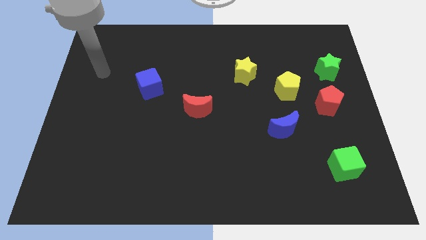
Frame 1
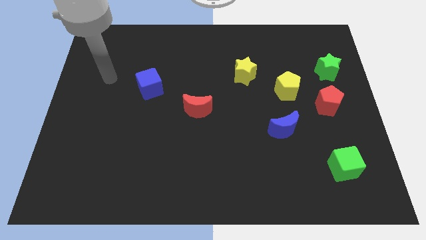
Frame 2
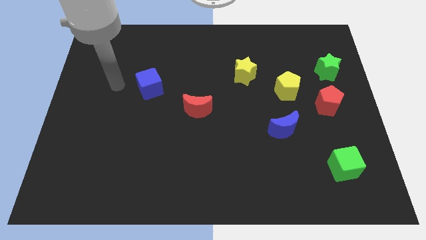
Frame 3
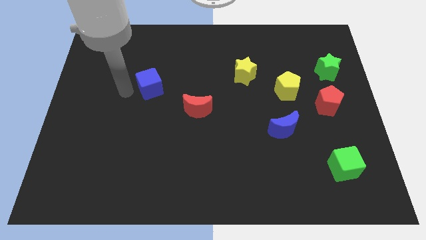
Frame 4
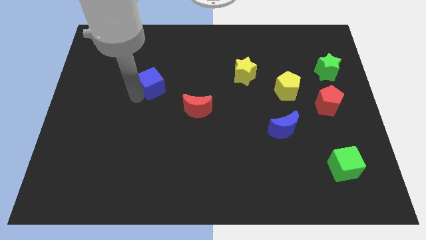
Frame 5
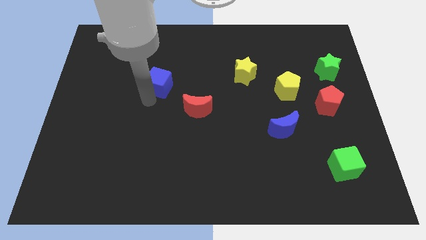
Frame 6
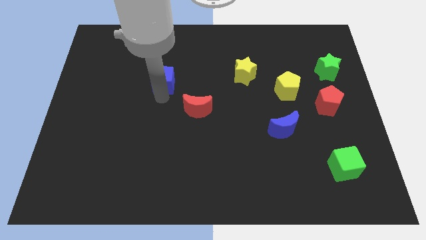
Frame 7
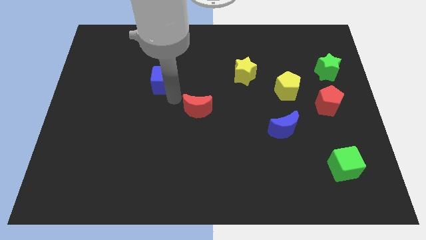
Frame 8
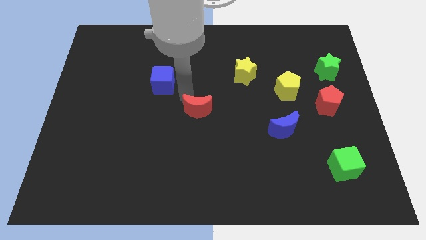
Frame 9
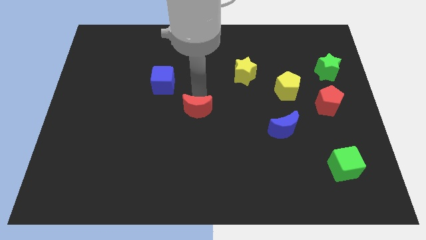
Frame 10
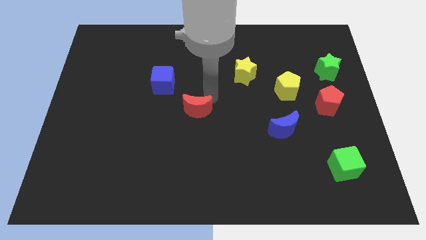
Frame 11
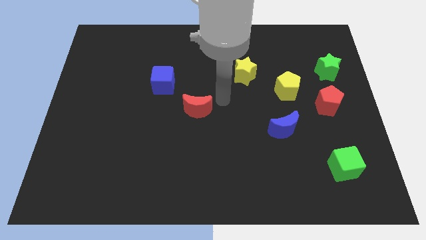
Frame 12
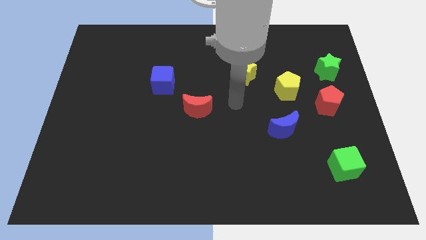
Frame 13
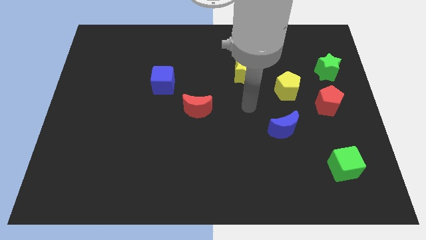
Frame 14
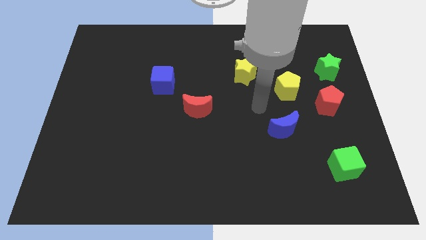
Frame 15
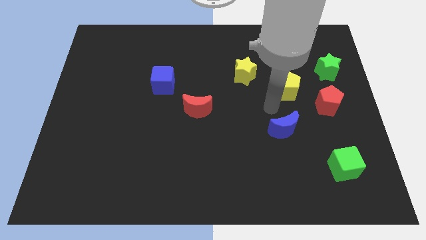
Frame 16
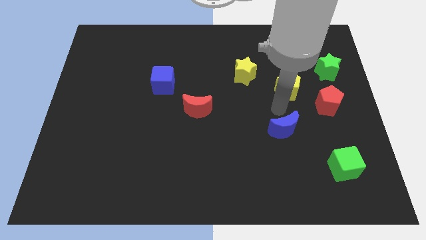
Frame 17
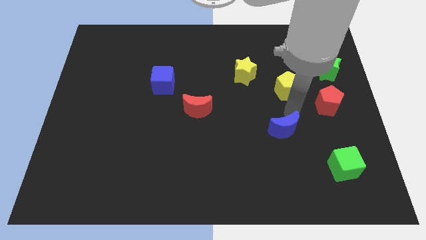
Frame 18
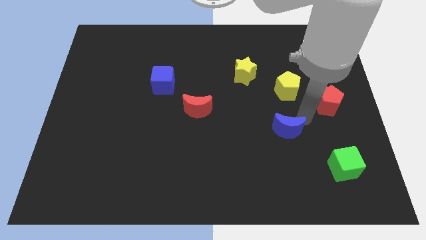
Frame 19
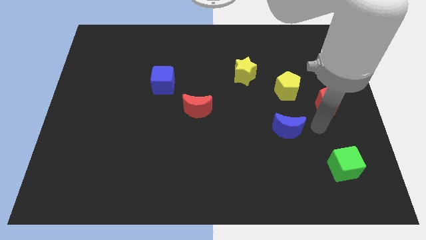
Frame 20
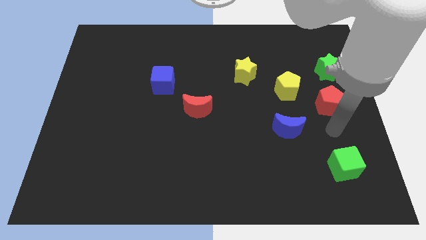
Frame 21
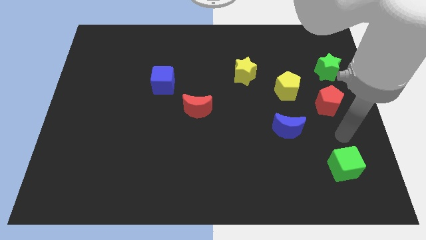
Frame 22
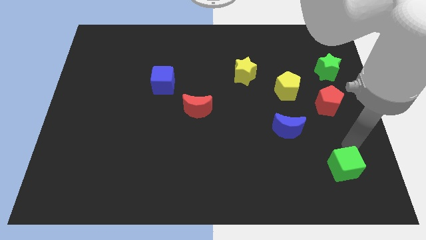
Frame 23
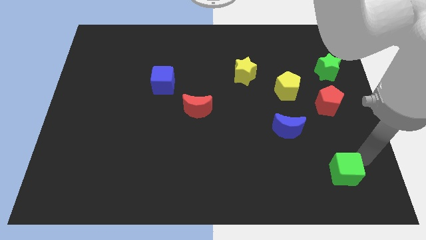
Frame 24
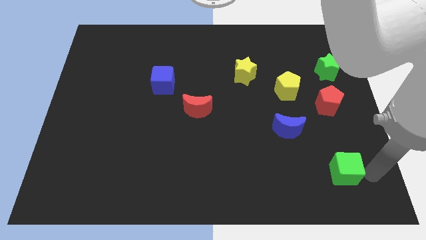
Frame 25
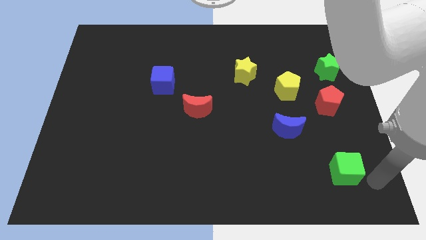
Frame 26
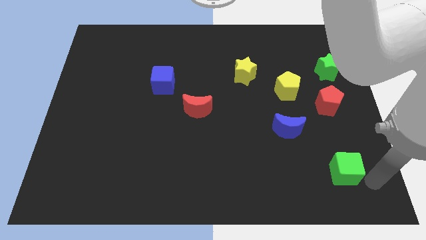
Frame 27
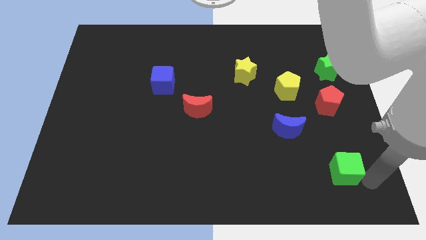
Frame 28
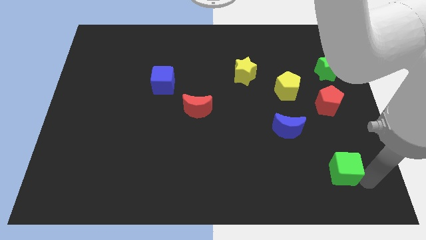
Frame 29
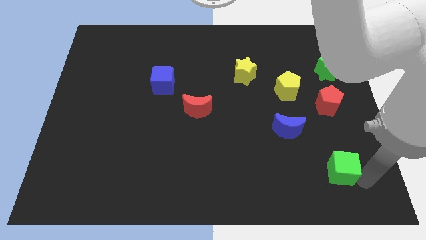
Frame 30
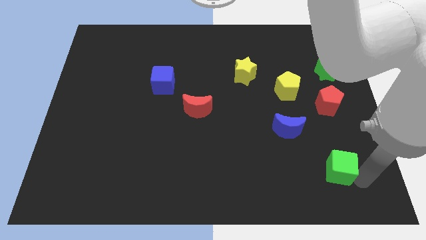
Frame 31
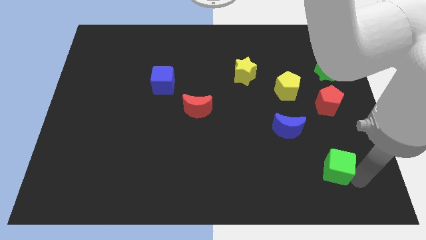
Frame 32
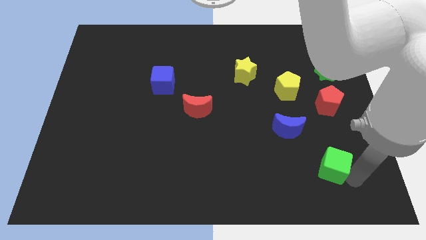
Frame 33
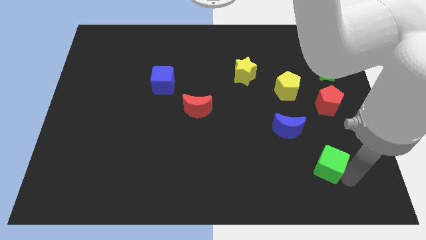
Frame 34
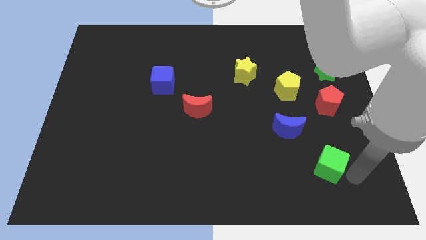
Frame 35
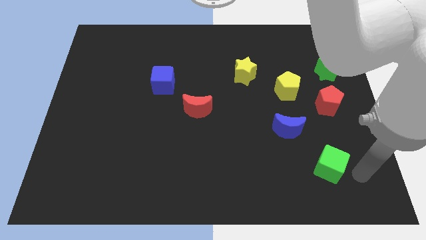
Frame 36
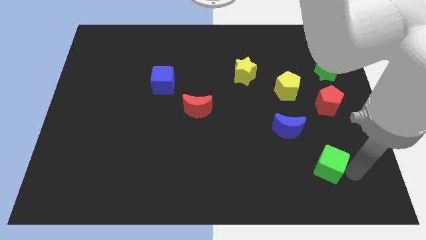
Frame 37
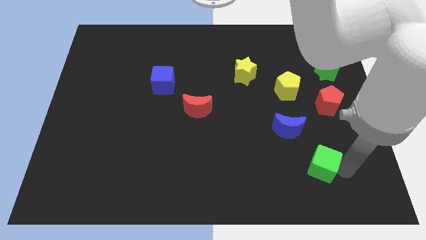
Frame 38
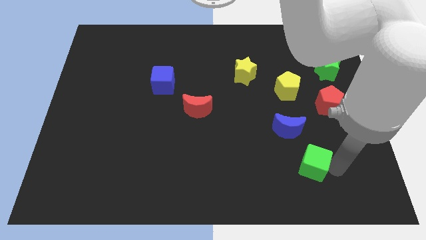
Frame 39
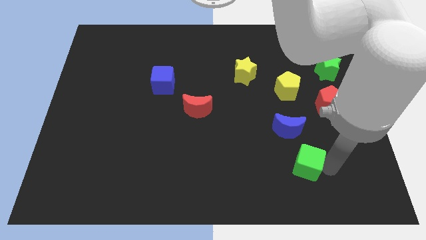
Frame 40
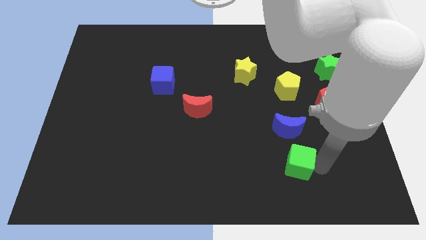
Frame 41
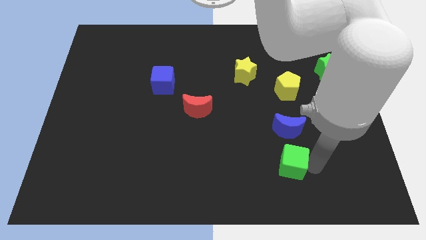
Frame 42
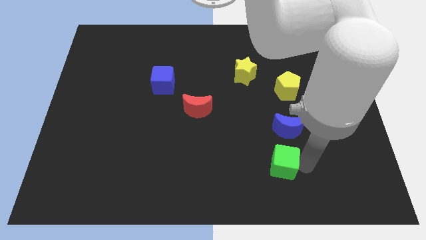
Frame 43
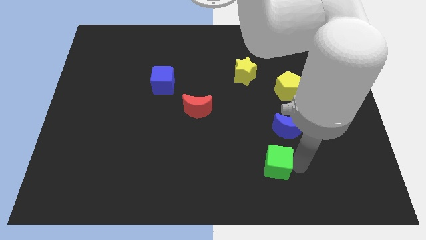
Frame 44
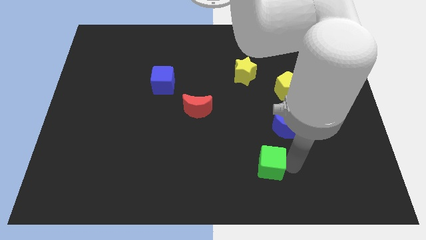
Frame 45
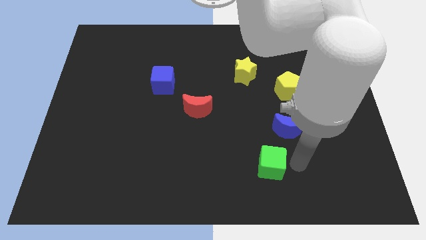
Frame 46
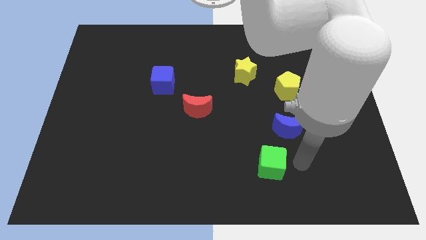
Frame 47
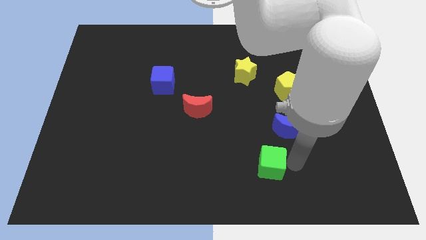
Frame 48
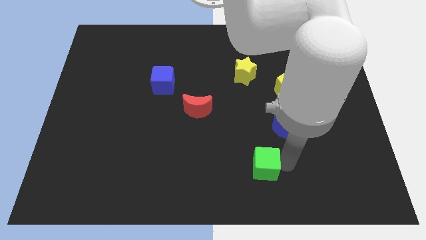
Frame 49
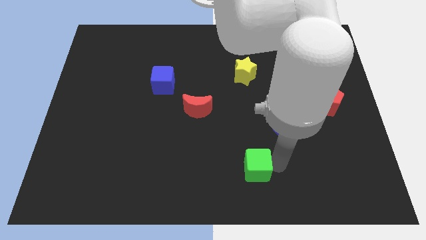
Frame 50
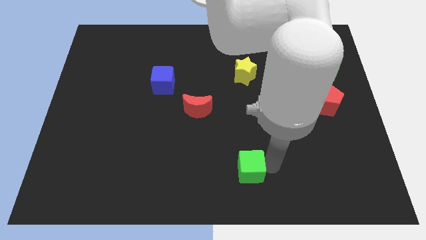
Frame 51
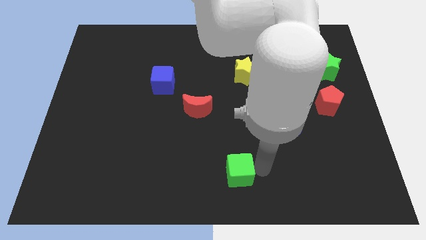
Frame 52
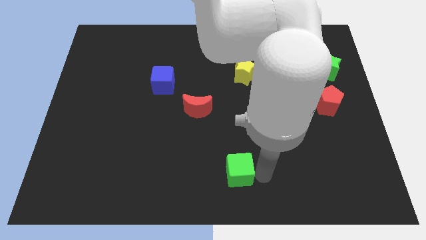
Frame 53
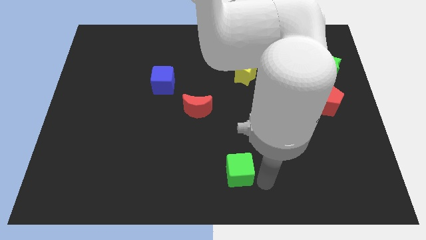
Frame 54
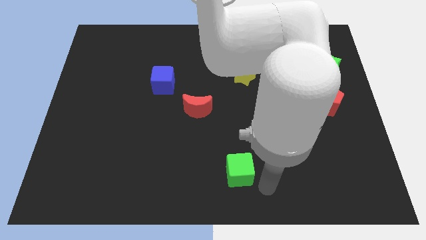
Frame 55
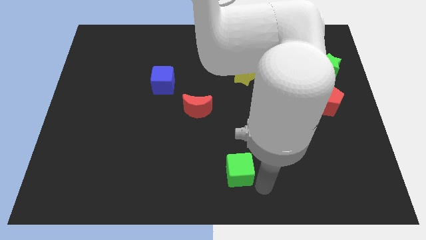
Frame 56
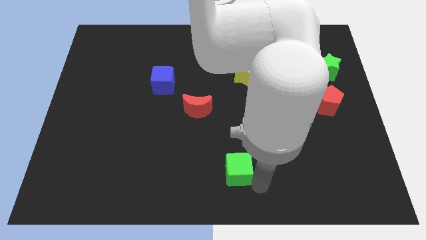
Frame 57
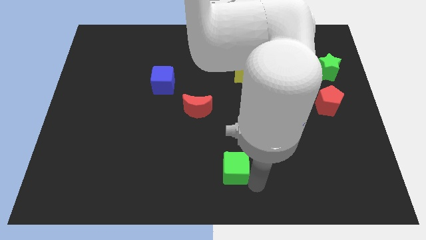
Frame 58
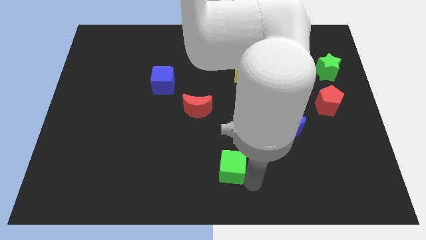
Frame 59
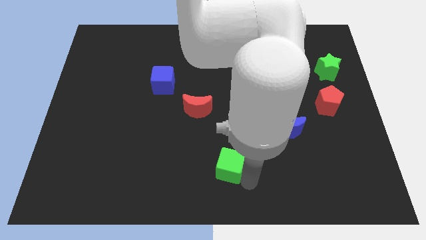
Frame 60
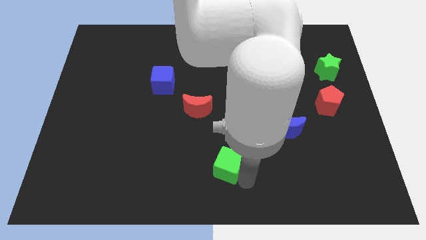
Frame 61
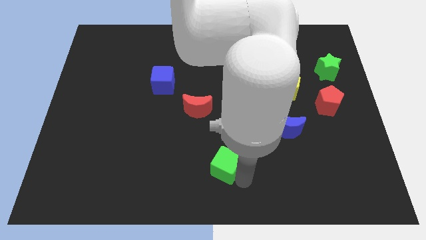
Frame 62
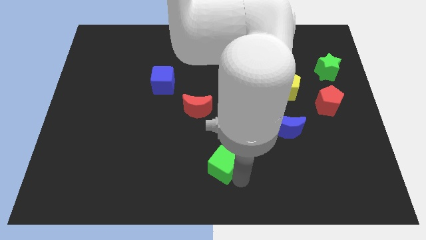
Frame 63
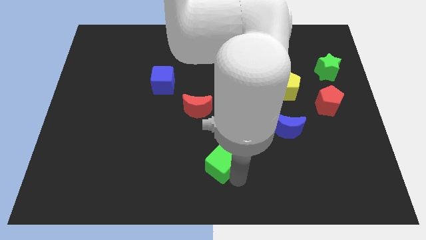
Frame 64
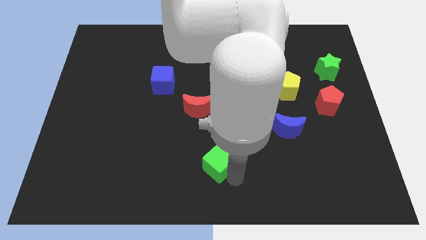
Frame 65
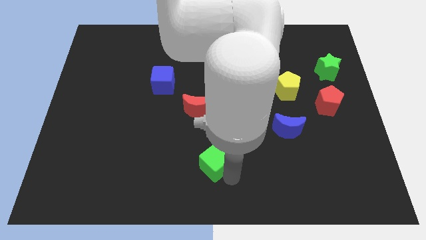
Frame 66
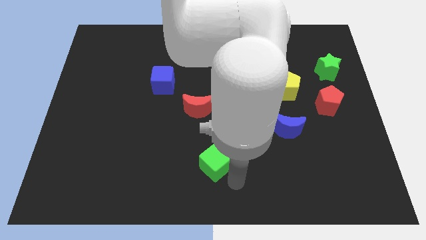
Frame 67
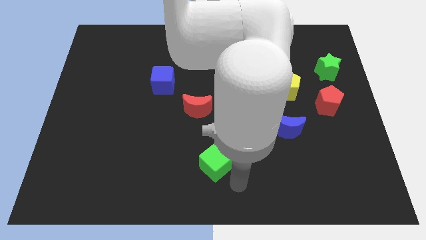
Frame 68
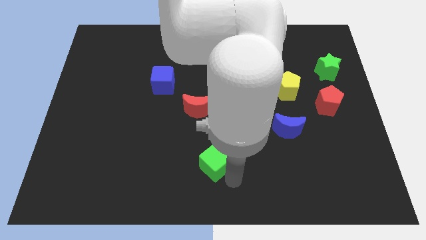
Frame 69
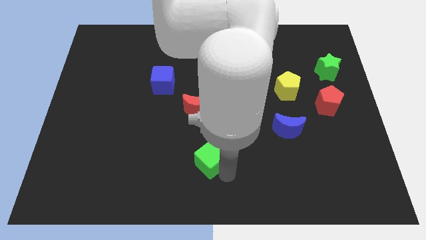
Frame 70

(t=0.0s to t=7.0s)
slide the green cube to the bottom of the red moon
